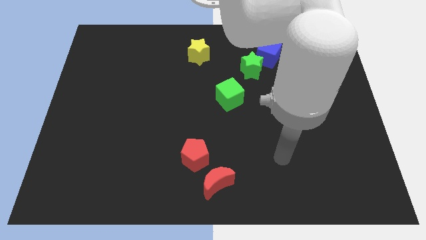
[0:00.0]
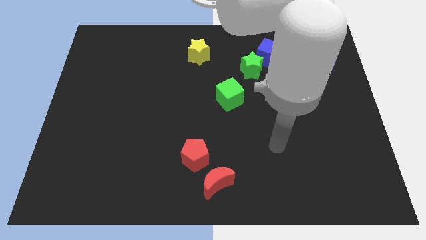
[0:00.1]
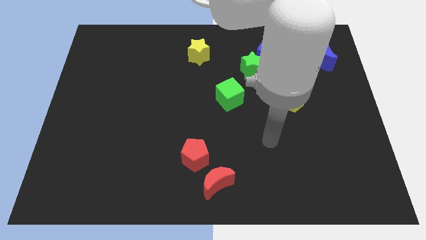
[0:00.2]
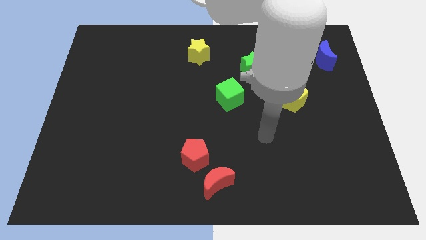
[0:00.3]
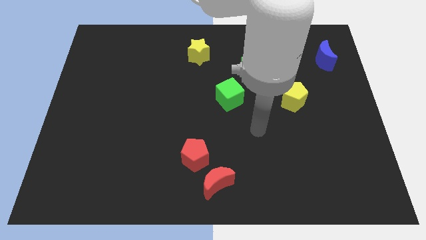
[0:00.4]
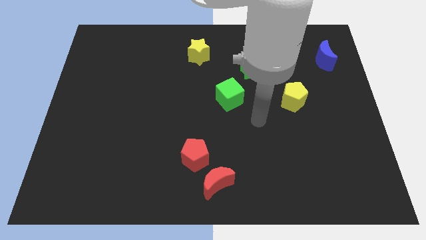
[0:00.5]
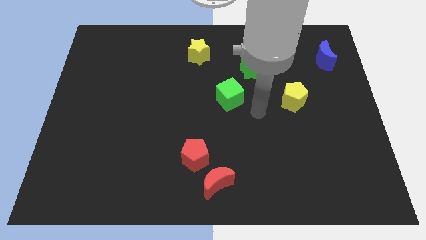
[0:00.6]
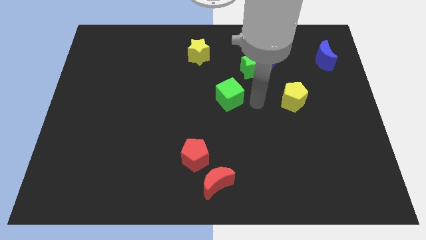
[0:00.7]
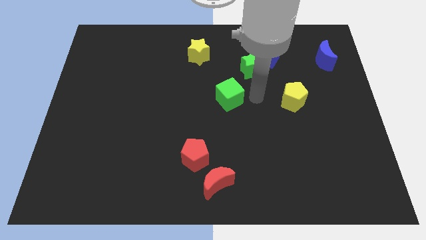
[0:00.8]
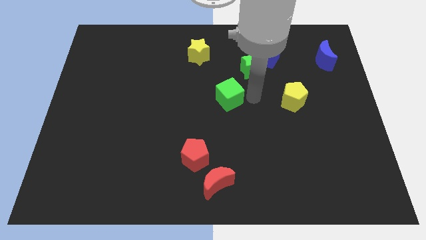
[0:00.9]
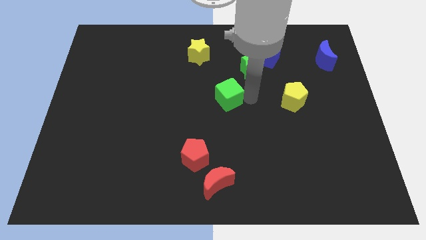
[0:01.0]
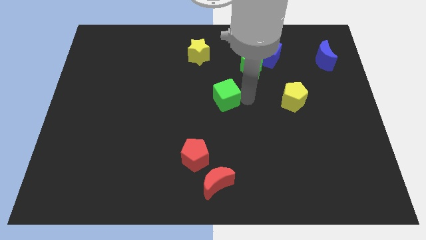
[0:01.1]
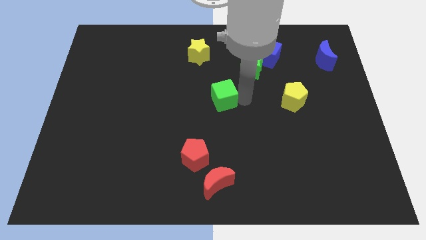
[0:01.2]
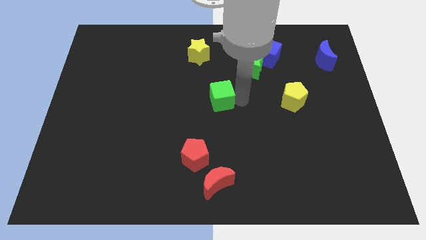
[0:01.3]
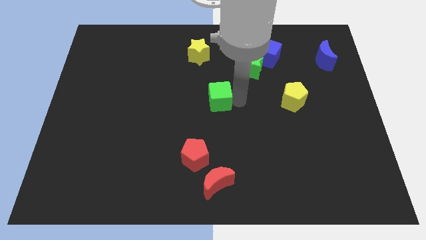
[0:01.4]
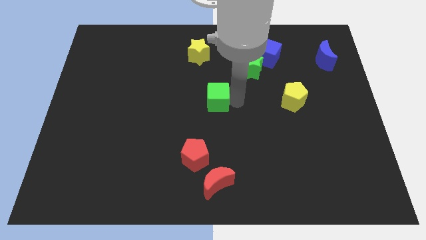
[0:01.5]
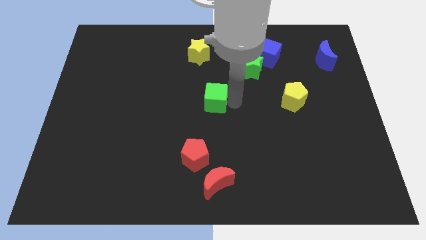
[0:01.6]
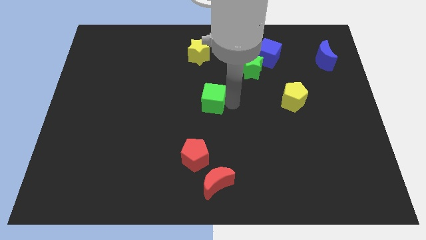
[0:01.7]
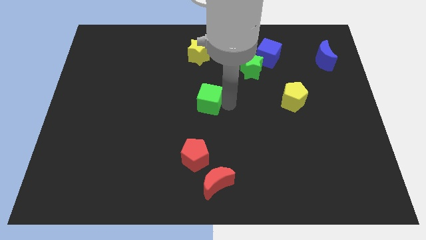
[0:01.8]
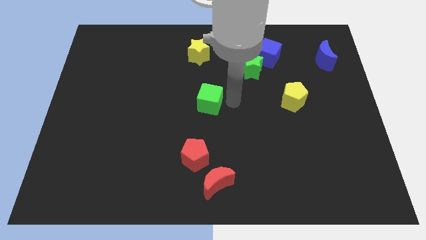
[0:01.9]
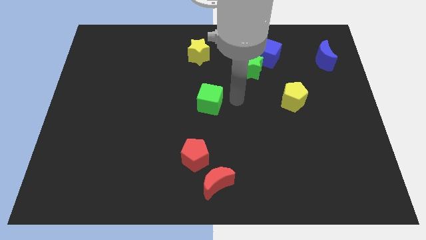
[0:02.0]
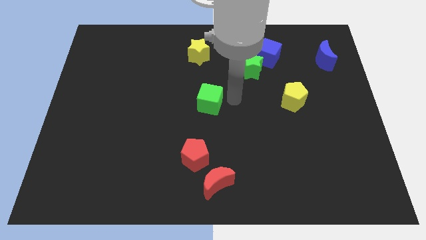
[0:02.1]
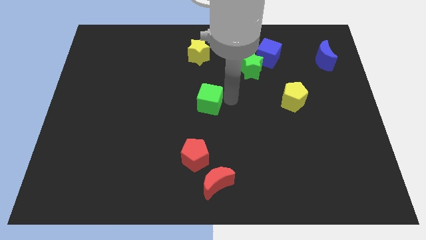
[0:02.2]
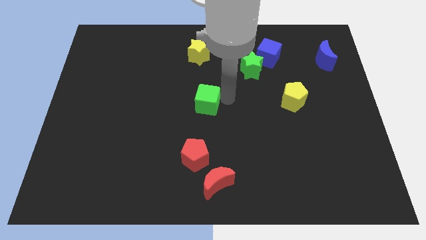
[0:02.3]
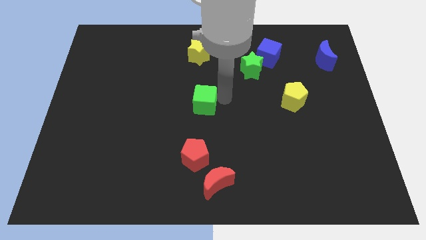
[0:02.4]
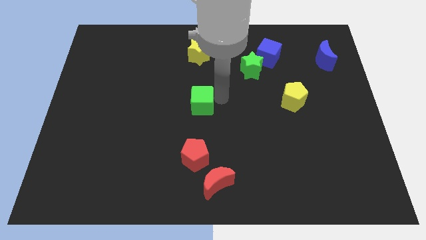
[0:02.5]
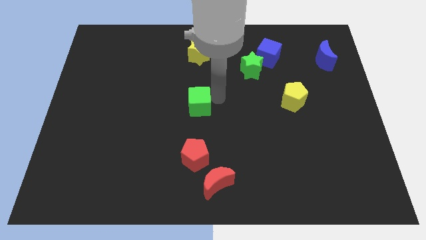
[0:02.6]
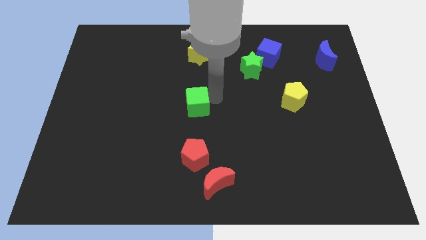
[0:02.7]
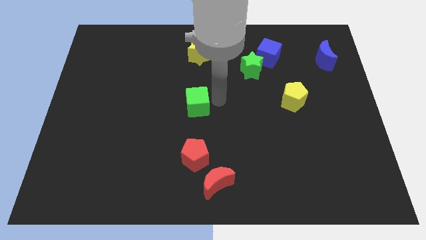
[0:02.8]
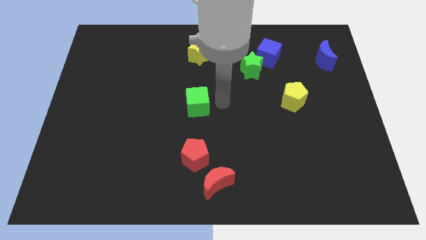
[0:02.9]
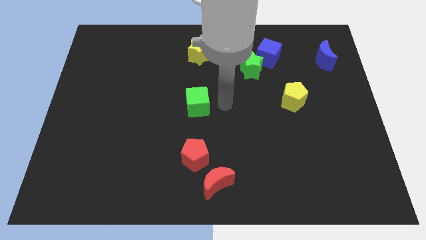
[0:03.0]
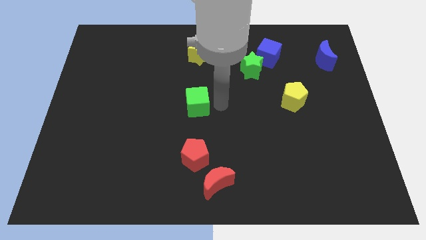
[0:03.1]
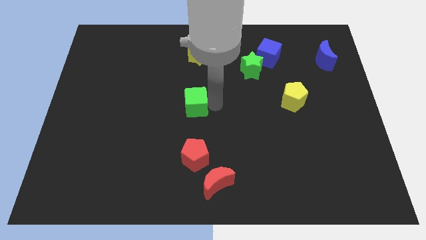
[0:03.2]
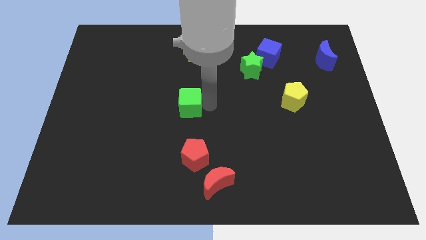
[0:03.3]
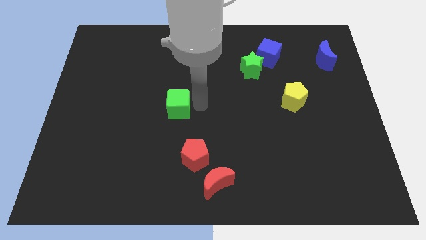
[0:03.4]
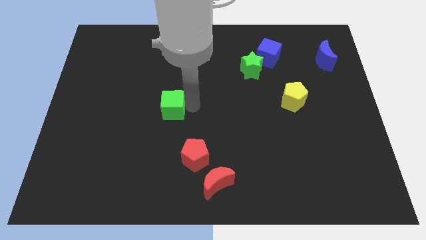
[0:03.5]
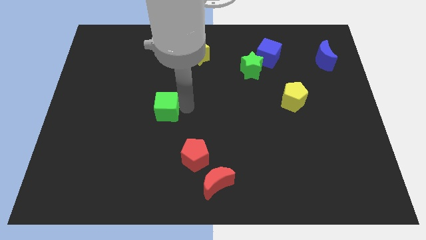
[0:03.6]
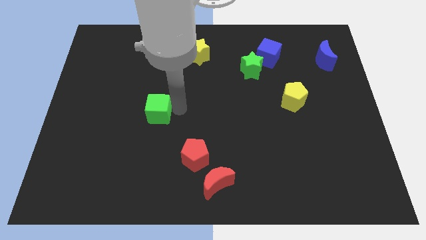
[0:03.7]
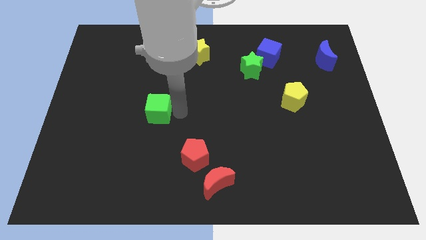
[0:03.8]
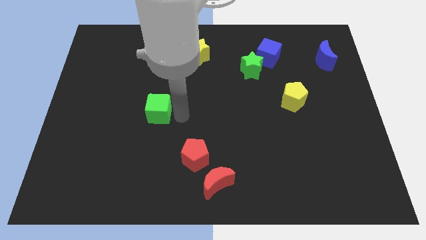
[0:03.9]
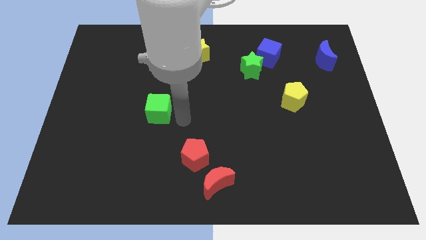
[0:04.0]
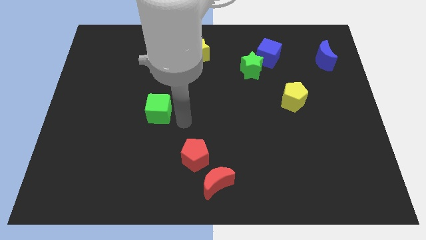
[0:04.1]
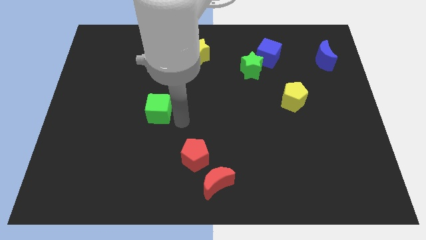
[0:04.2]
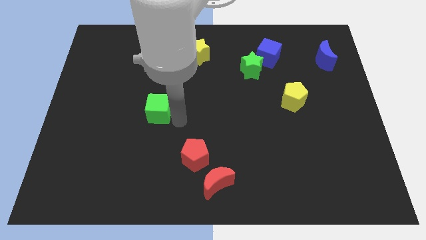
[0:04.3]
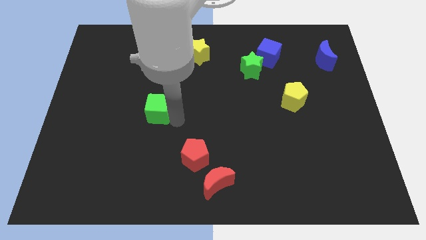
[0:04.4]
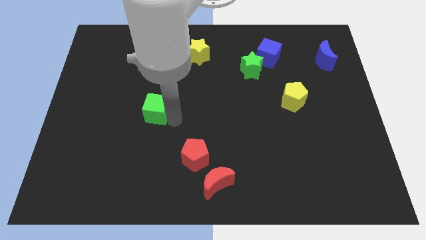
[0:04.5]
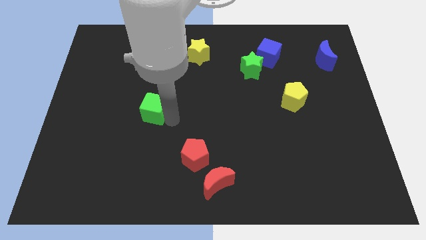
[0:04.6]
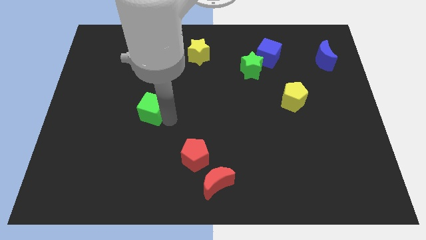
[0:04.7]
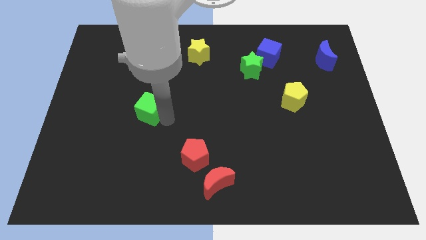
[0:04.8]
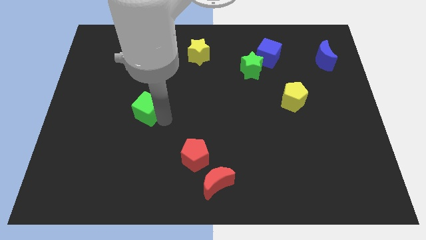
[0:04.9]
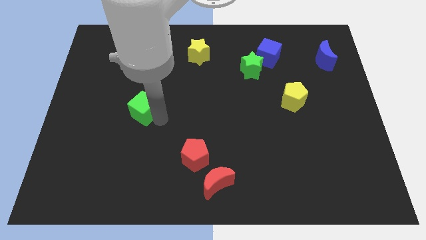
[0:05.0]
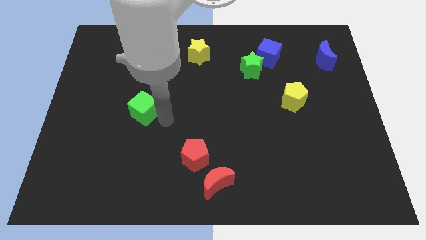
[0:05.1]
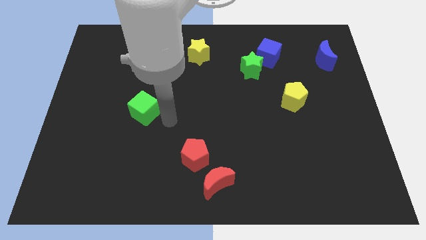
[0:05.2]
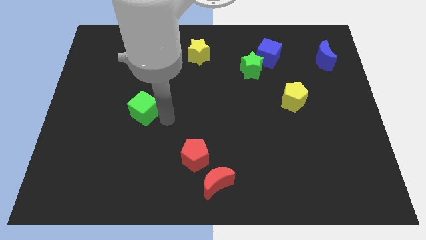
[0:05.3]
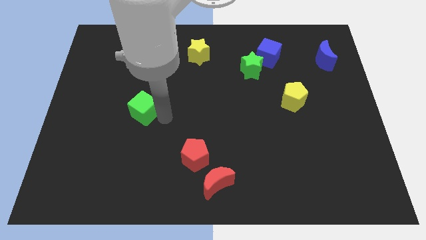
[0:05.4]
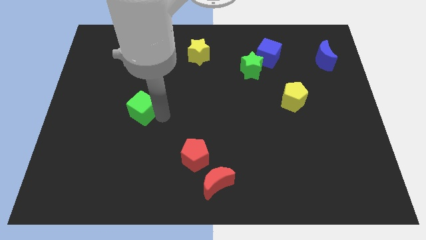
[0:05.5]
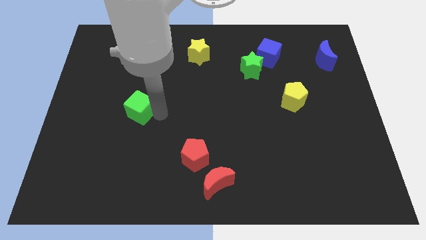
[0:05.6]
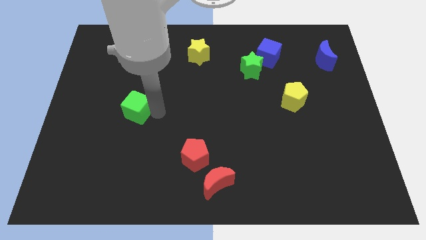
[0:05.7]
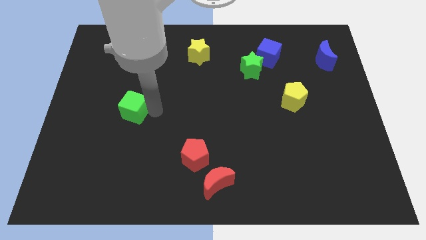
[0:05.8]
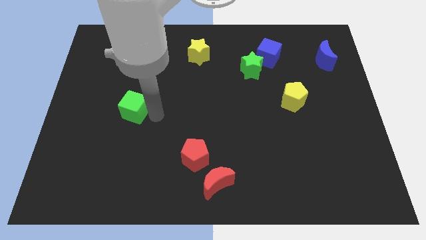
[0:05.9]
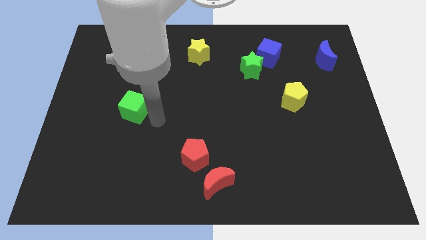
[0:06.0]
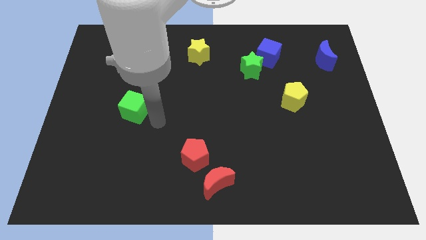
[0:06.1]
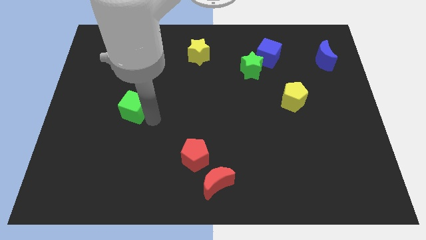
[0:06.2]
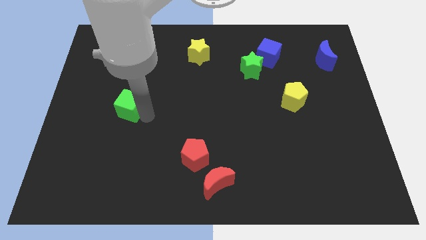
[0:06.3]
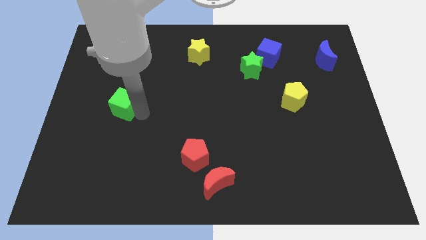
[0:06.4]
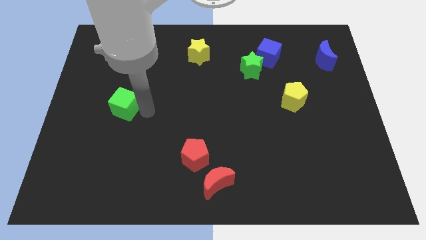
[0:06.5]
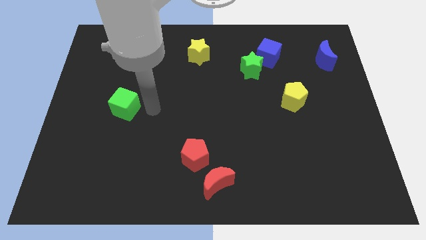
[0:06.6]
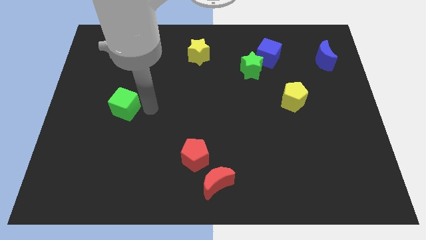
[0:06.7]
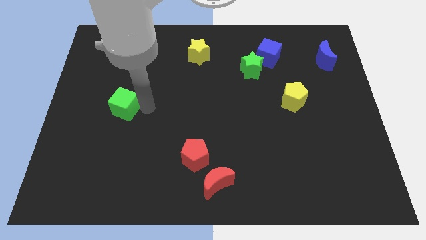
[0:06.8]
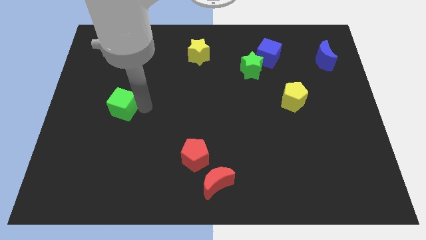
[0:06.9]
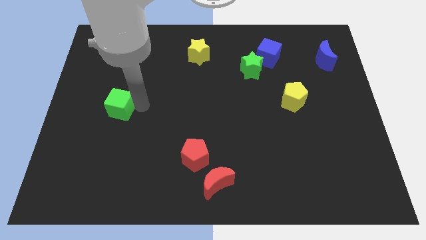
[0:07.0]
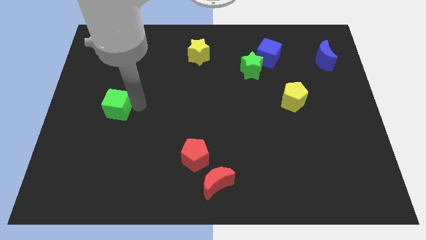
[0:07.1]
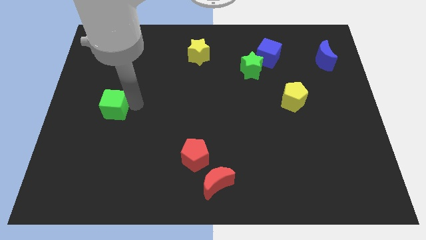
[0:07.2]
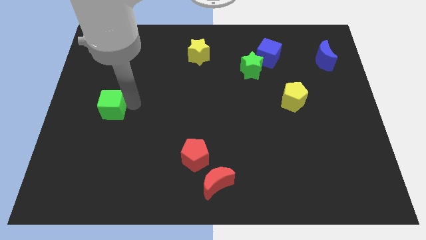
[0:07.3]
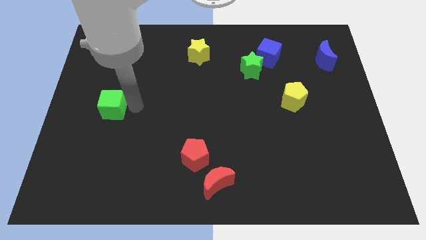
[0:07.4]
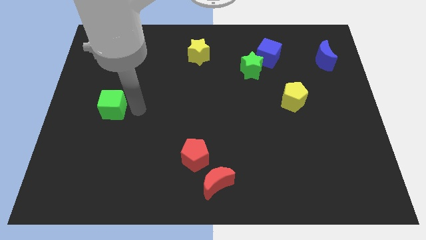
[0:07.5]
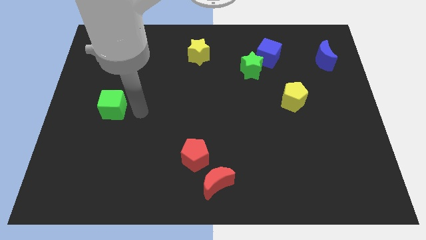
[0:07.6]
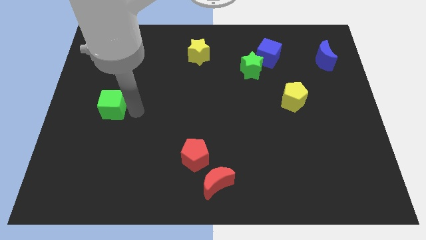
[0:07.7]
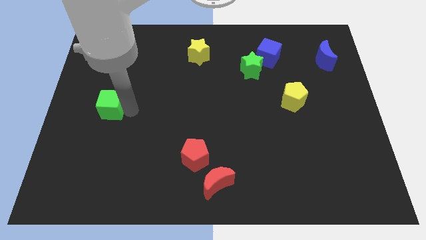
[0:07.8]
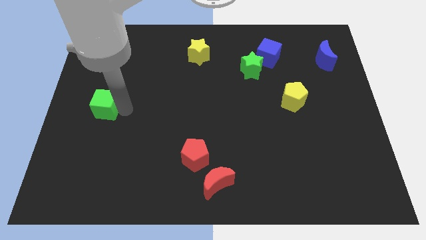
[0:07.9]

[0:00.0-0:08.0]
put the green cube to the left side
